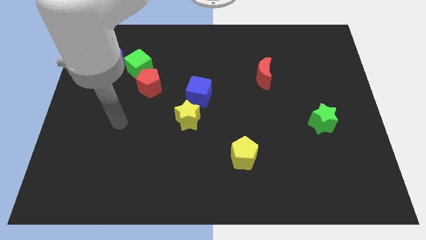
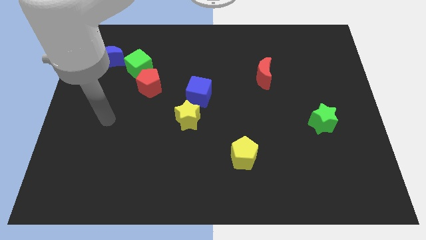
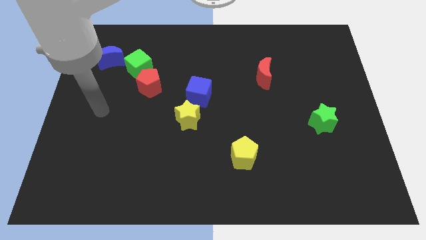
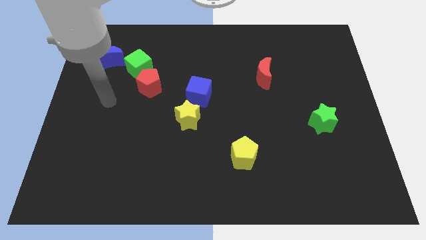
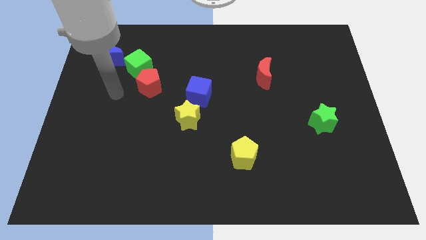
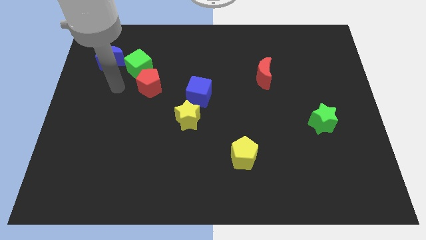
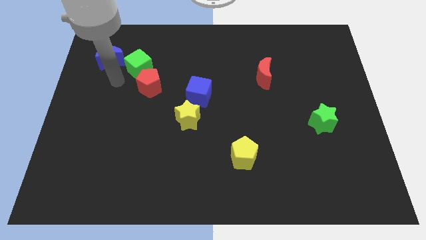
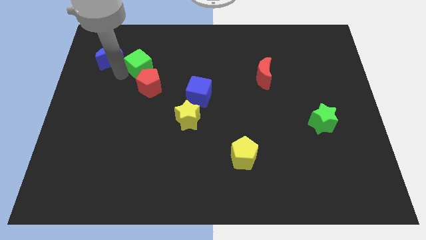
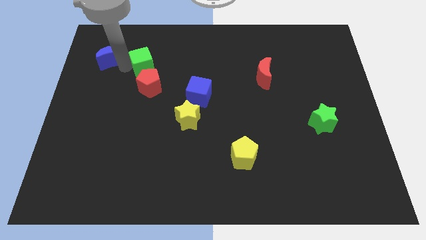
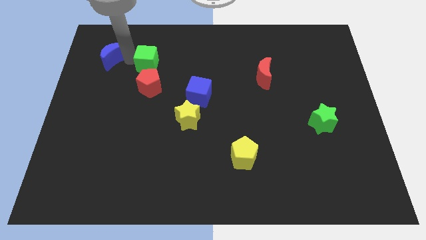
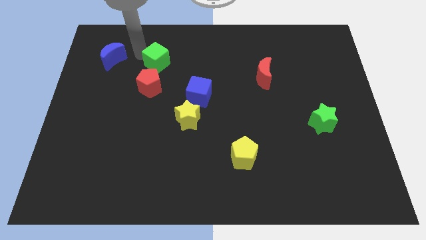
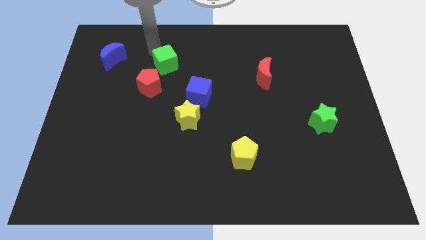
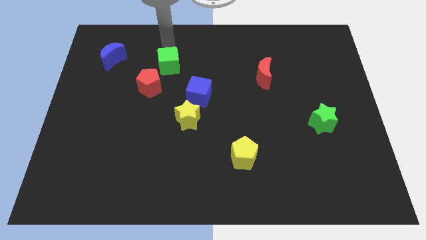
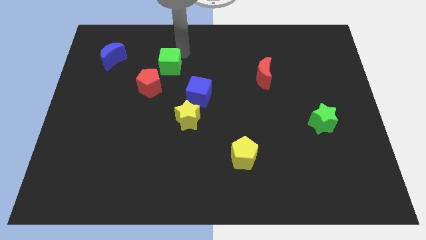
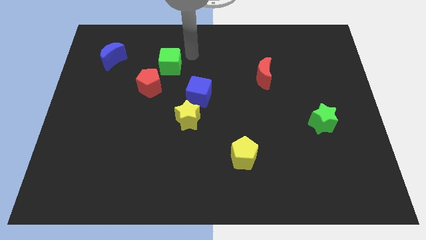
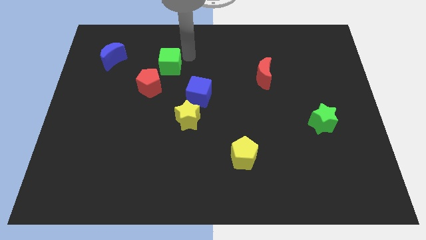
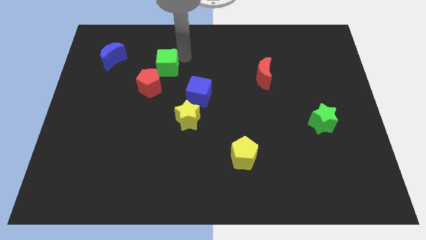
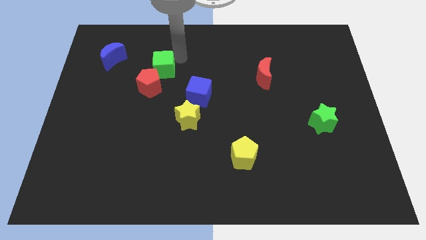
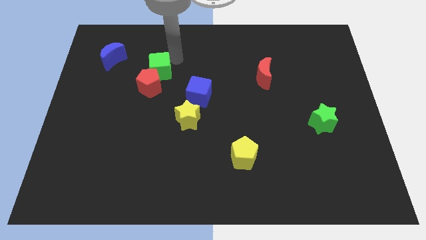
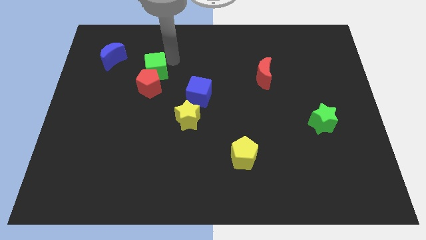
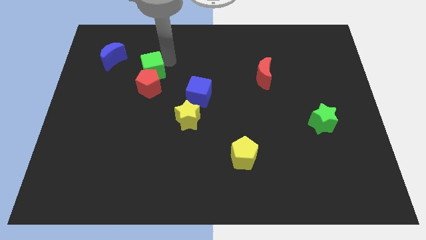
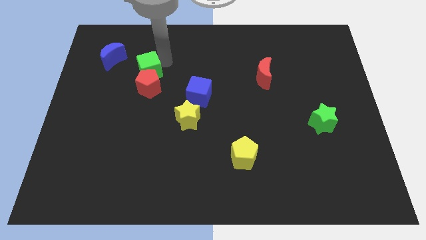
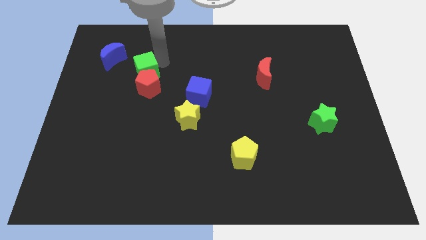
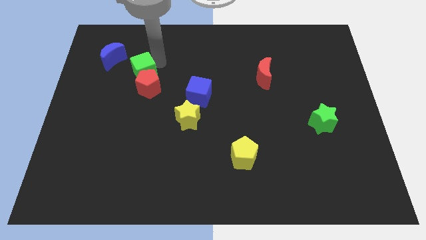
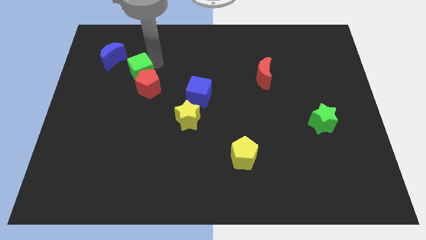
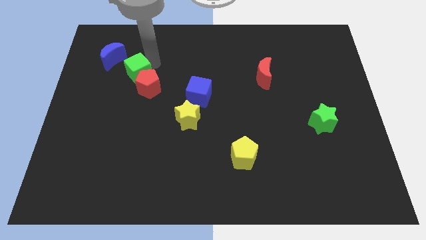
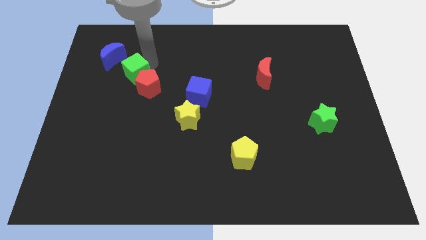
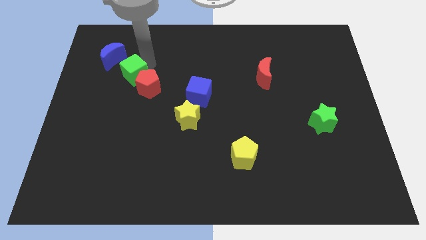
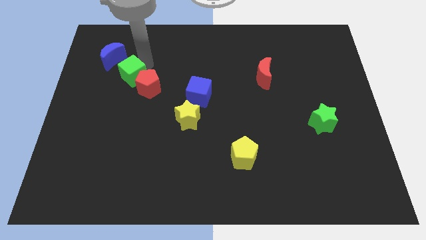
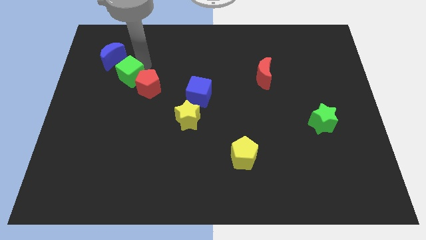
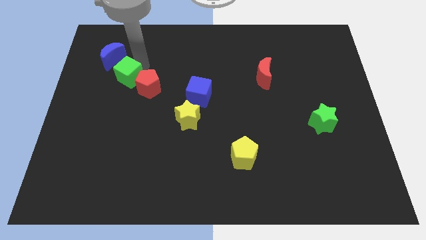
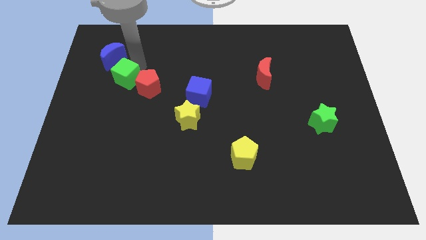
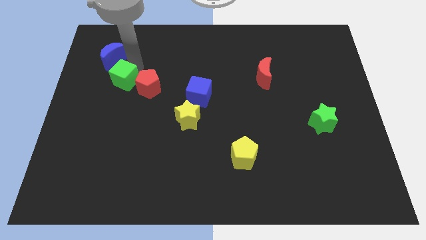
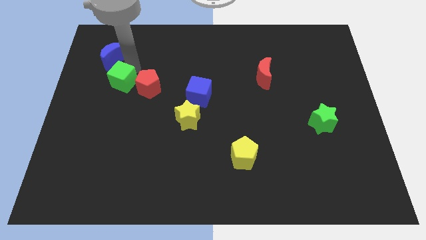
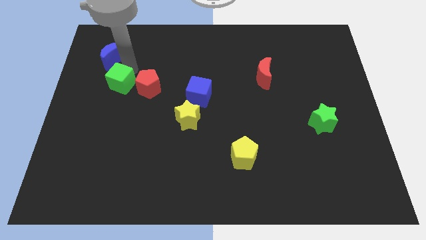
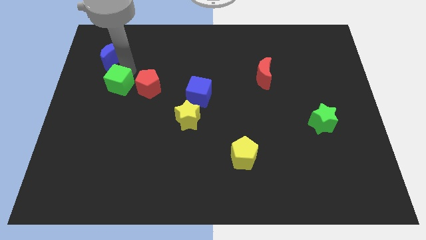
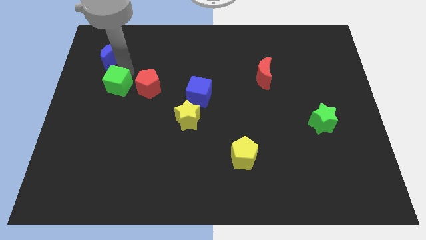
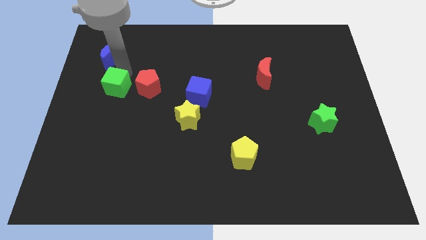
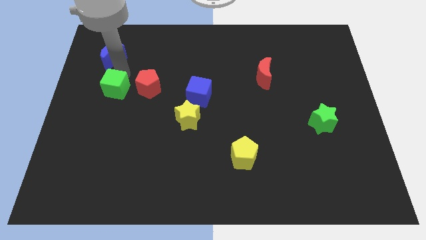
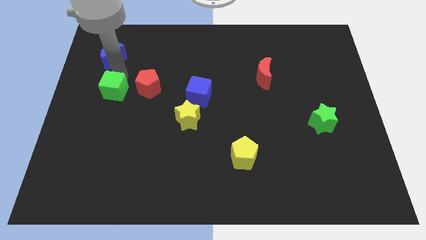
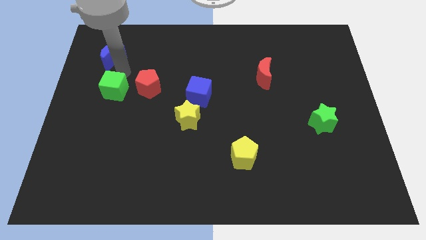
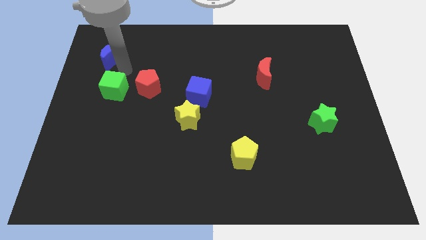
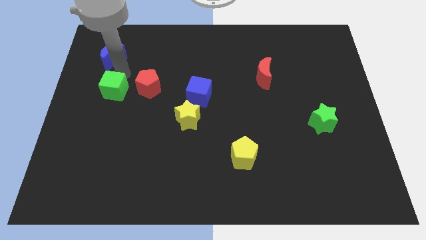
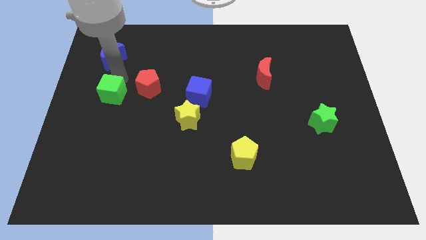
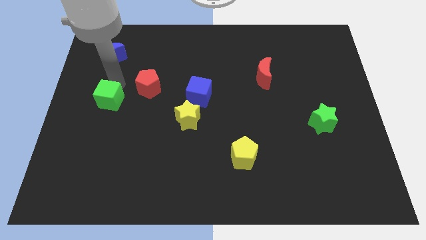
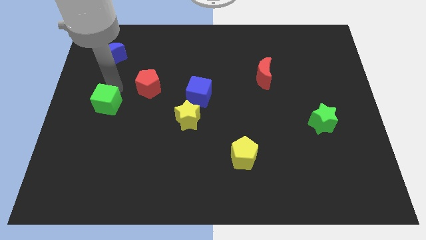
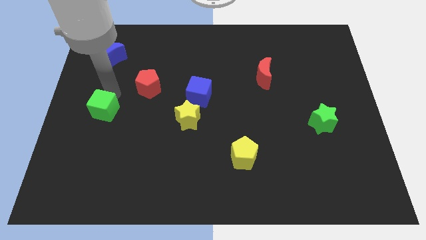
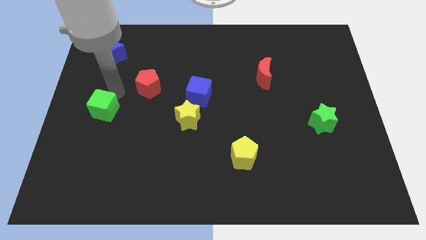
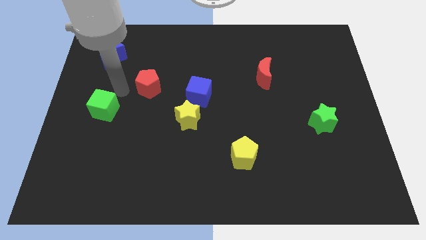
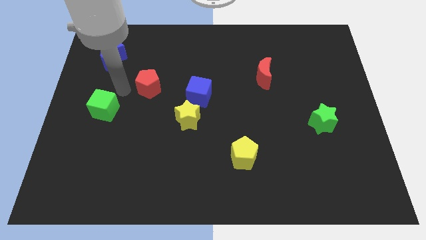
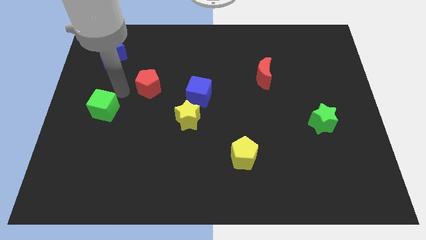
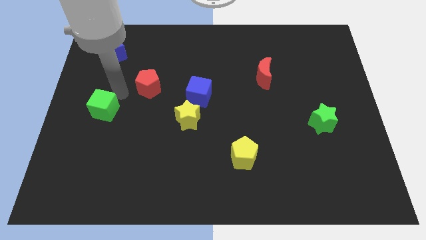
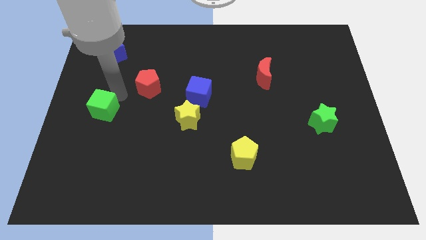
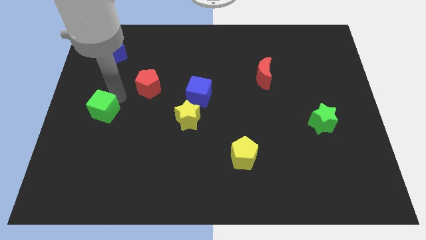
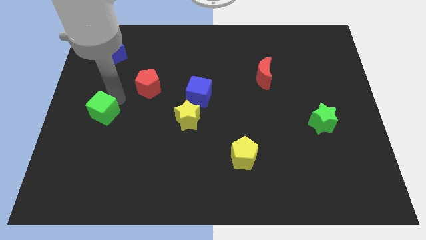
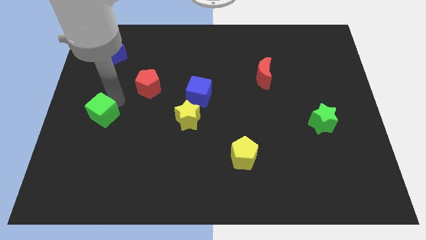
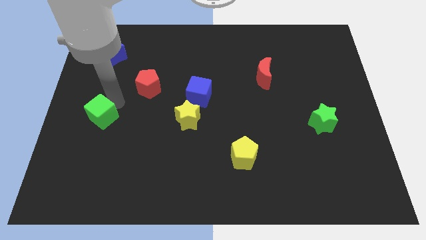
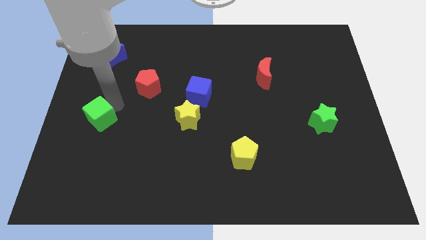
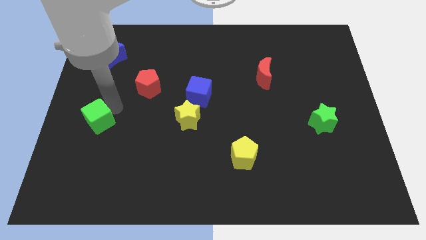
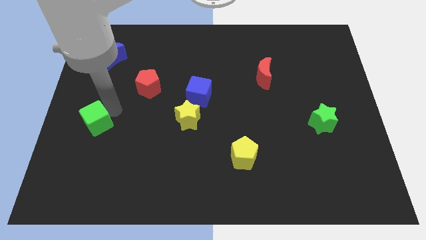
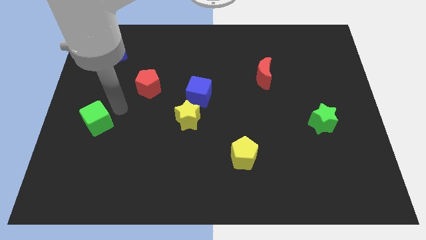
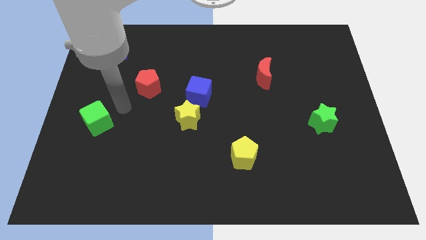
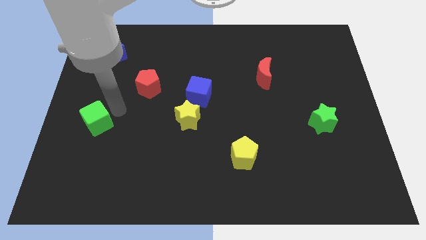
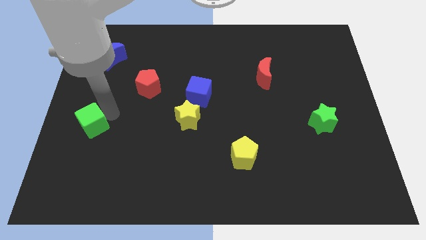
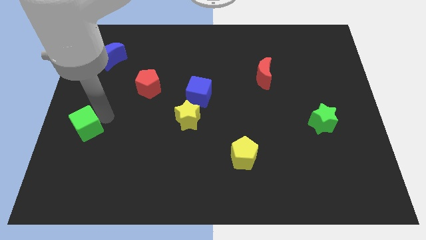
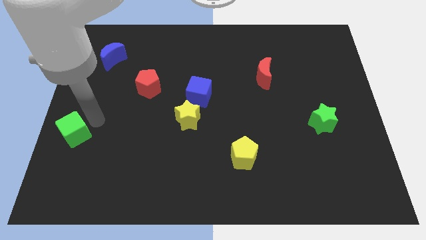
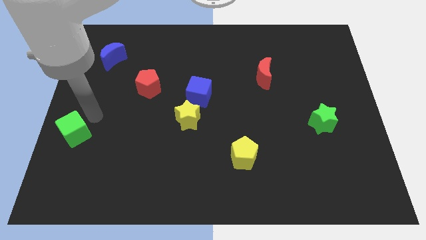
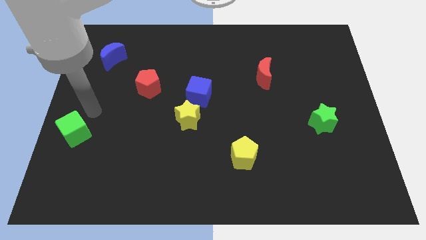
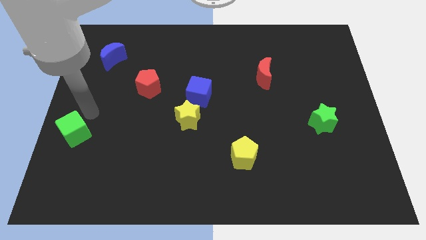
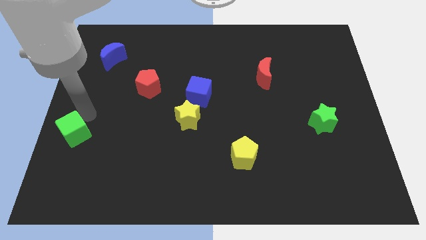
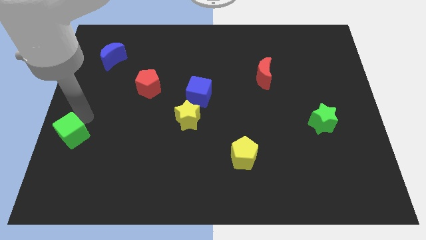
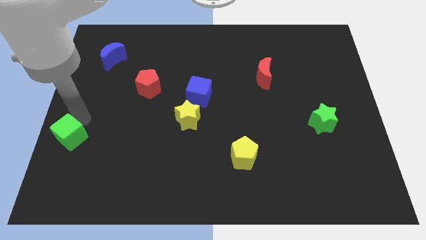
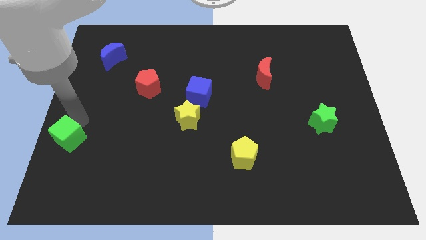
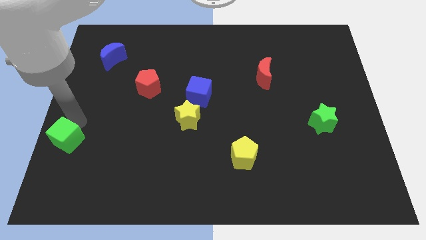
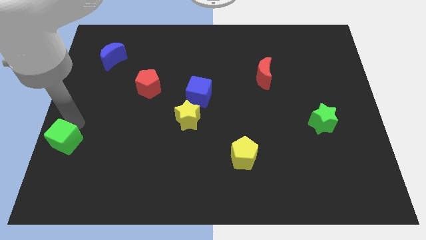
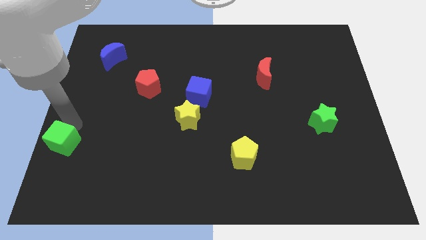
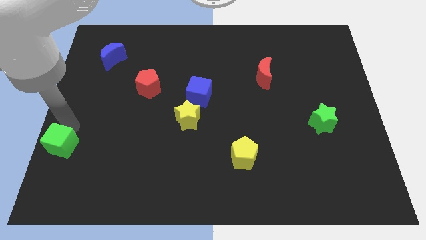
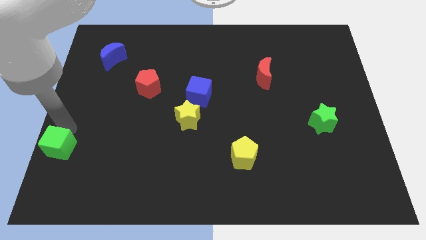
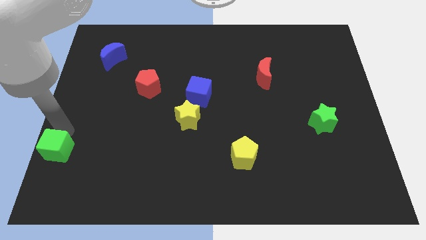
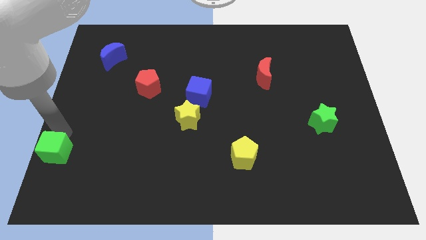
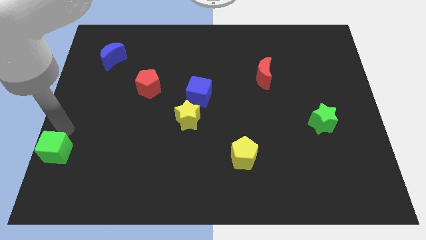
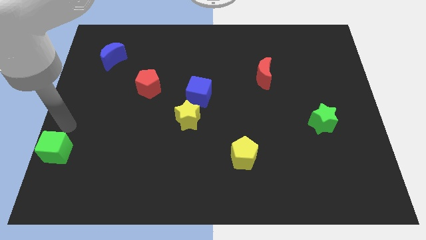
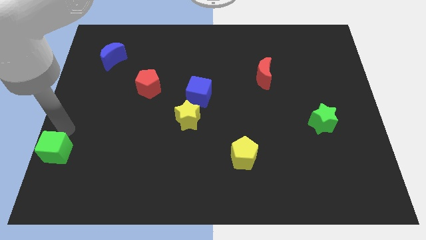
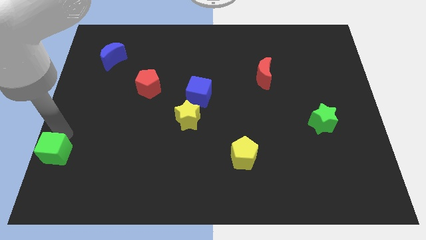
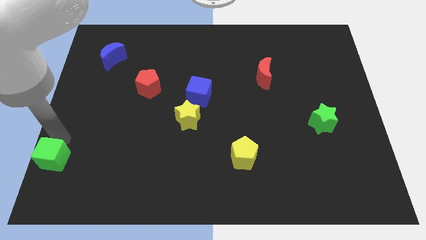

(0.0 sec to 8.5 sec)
slide the green cube to the bottom left of the board
